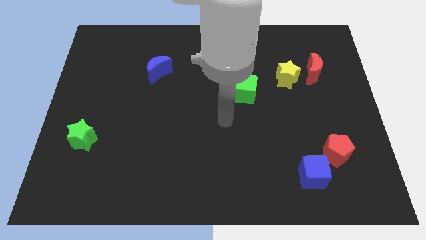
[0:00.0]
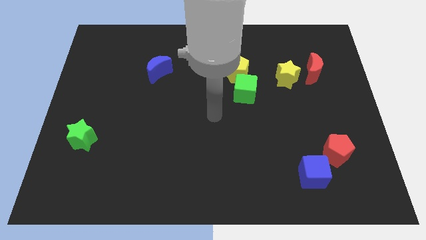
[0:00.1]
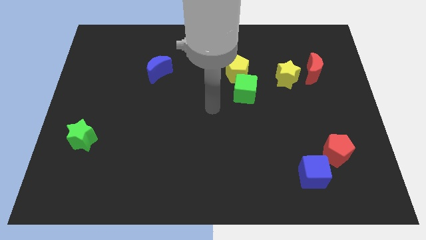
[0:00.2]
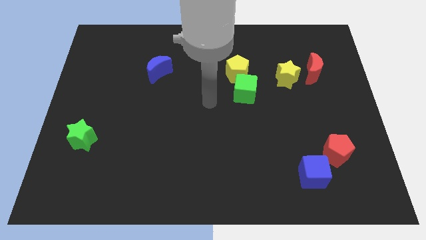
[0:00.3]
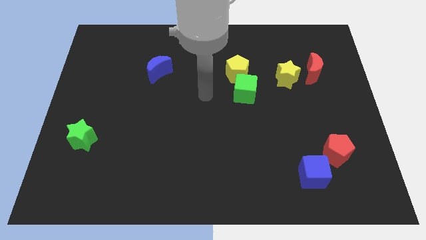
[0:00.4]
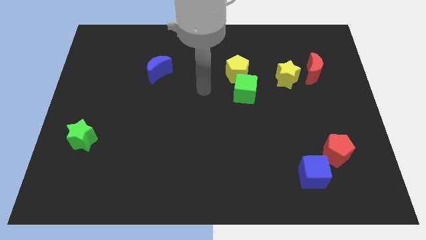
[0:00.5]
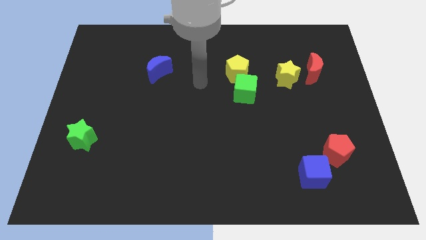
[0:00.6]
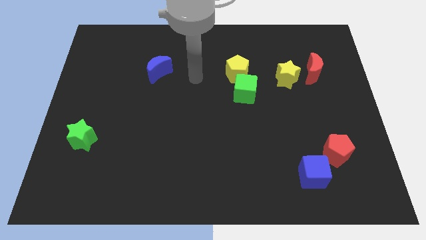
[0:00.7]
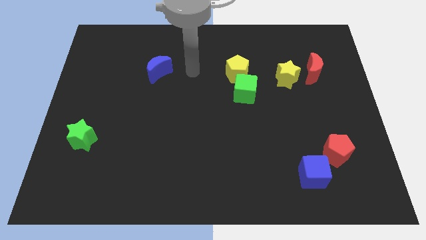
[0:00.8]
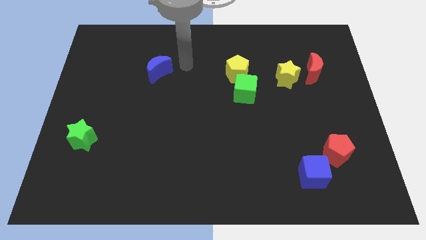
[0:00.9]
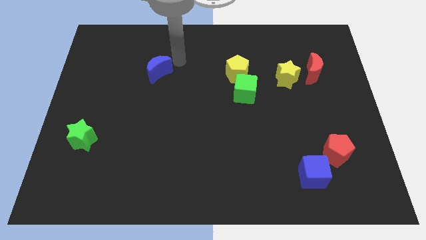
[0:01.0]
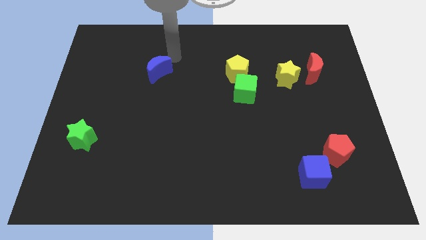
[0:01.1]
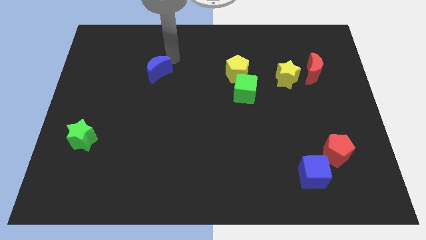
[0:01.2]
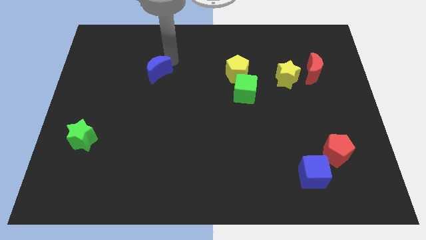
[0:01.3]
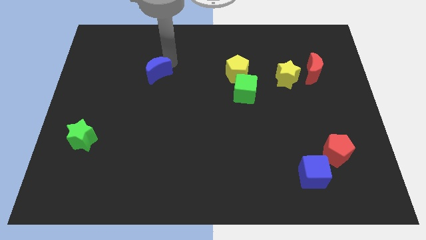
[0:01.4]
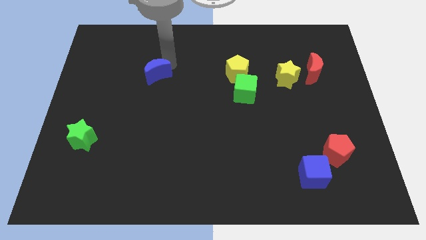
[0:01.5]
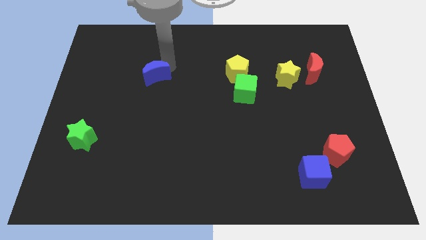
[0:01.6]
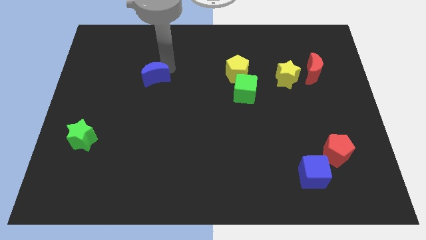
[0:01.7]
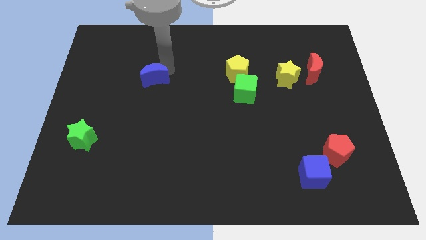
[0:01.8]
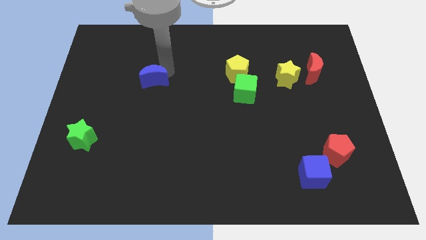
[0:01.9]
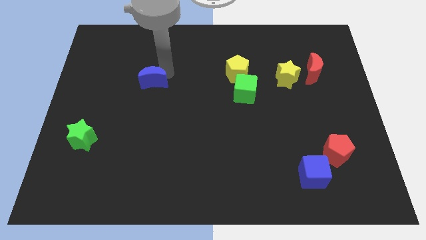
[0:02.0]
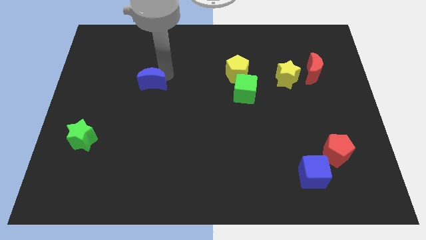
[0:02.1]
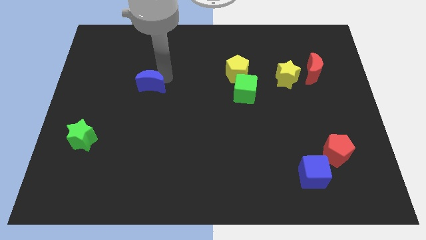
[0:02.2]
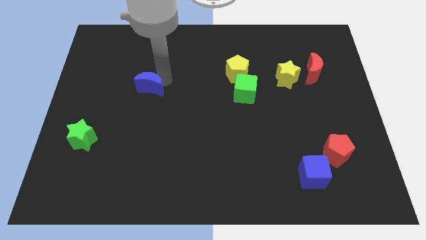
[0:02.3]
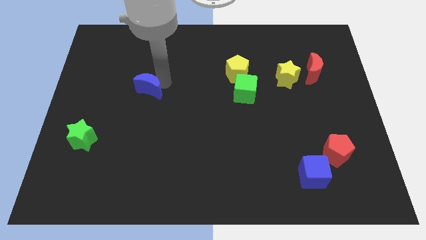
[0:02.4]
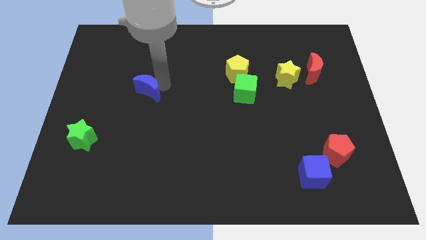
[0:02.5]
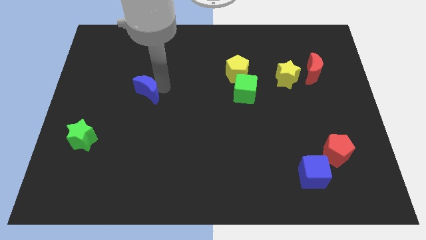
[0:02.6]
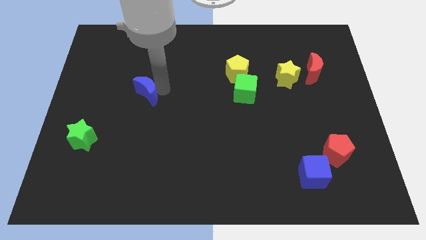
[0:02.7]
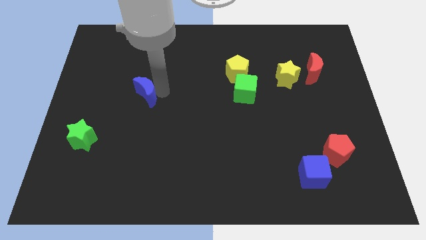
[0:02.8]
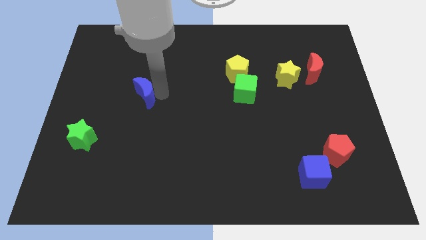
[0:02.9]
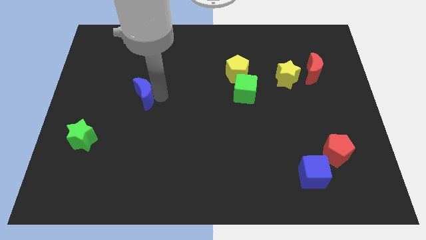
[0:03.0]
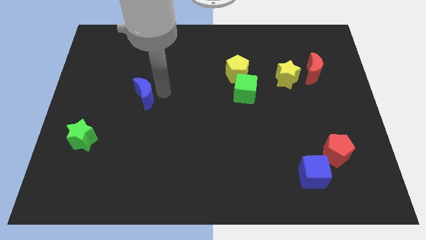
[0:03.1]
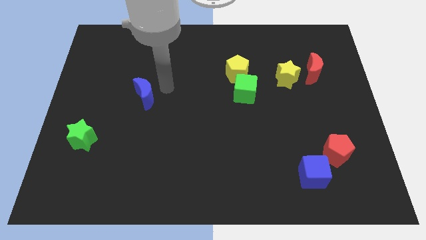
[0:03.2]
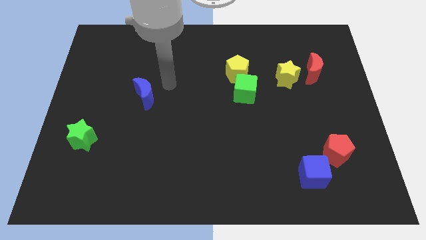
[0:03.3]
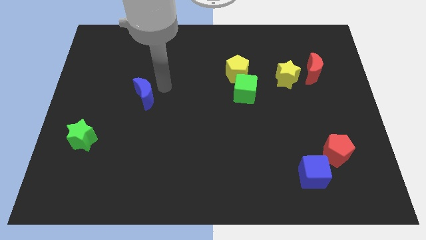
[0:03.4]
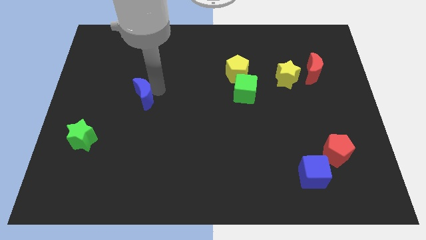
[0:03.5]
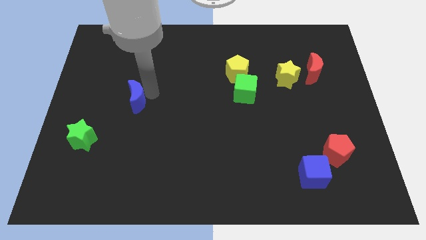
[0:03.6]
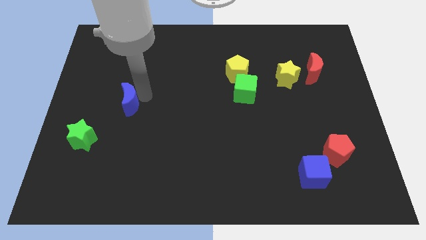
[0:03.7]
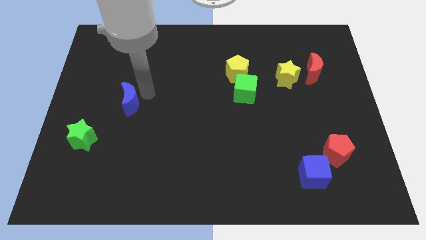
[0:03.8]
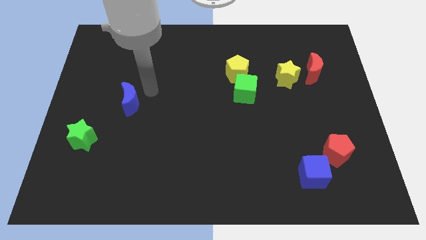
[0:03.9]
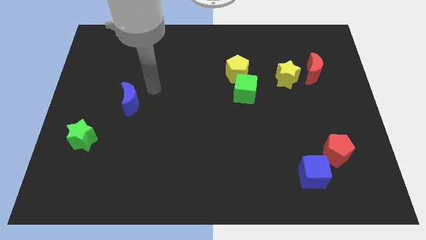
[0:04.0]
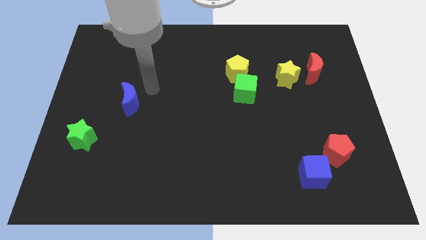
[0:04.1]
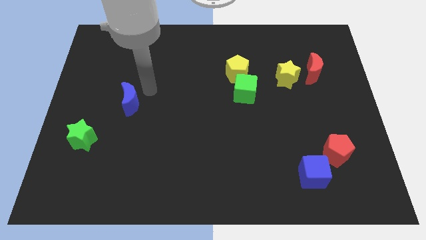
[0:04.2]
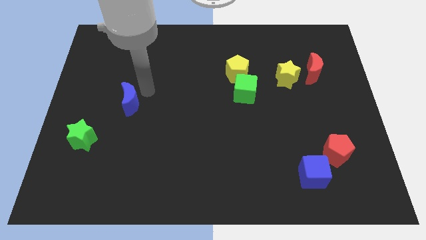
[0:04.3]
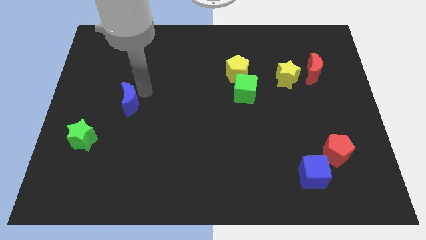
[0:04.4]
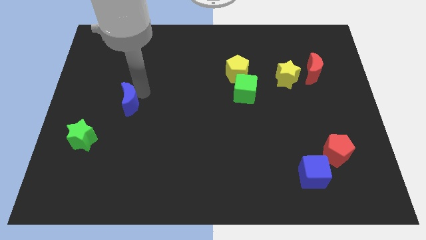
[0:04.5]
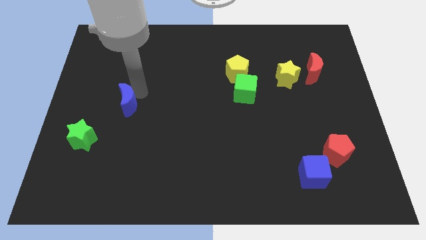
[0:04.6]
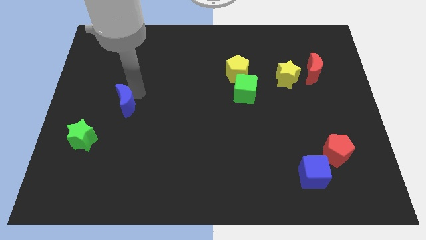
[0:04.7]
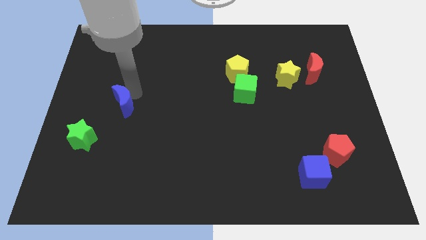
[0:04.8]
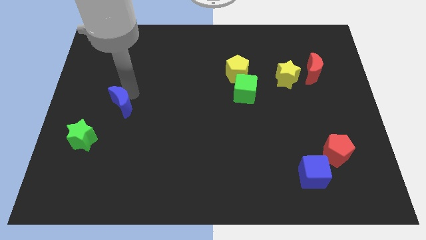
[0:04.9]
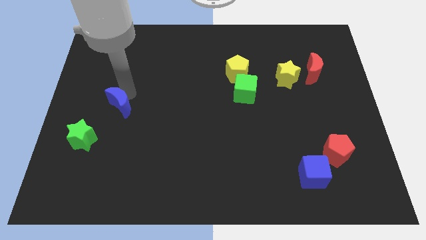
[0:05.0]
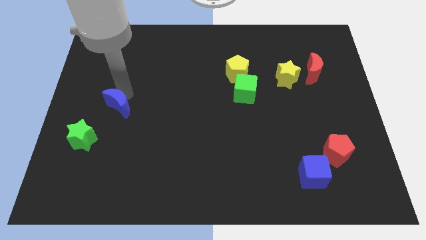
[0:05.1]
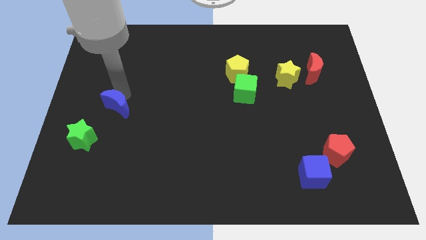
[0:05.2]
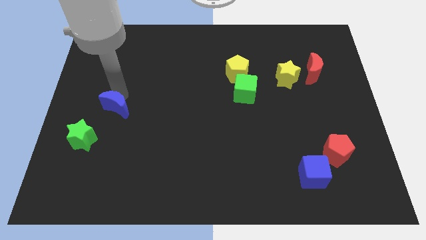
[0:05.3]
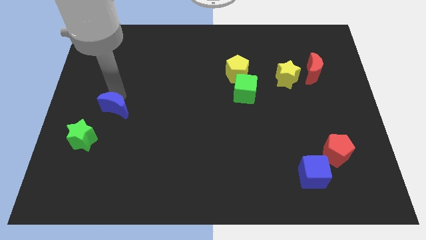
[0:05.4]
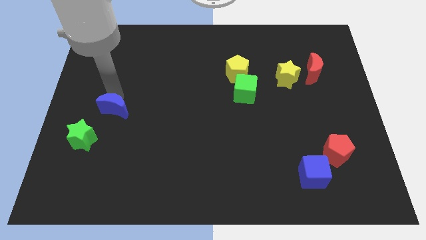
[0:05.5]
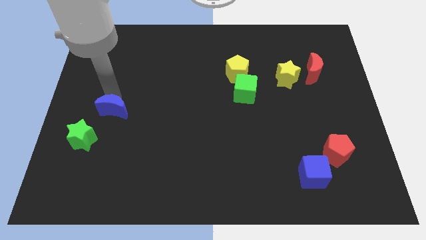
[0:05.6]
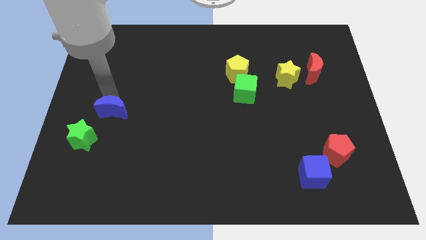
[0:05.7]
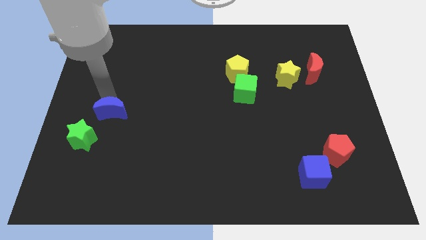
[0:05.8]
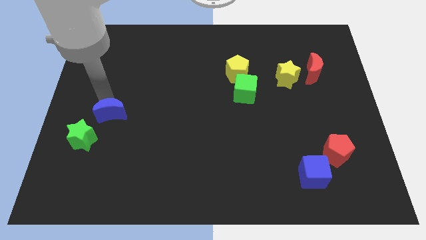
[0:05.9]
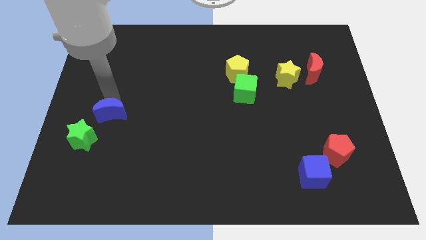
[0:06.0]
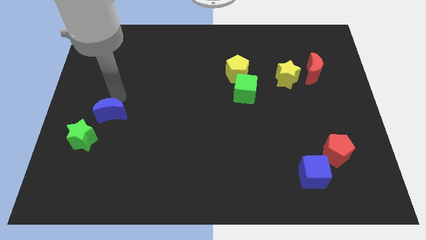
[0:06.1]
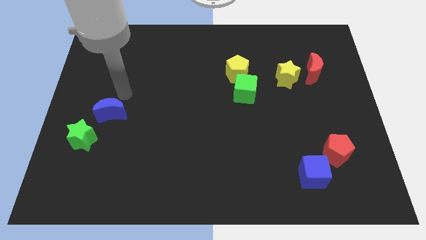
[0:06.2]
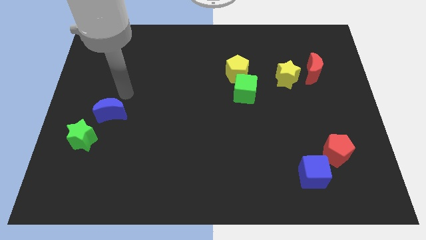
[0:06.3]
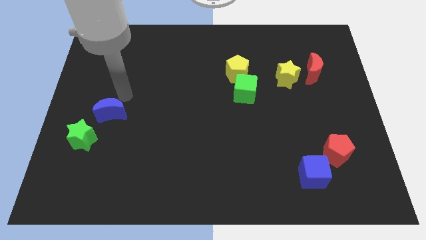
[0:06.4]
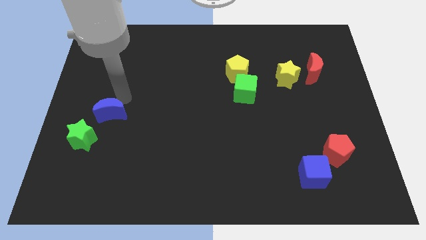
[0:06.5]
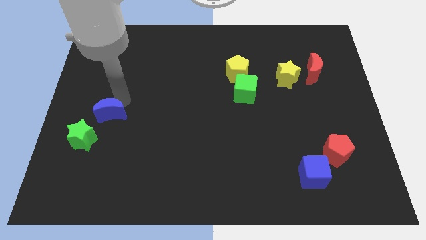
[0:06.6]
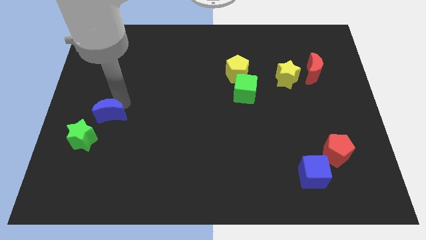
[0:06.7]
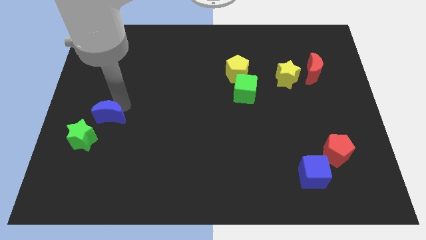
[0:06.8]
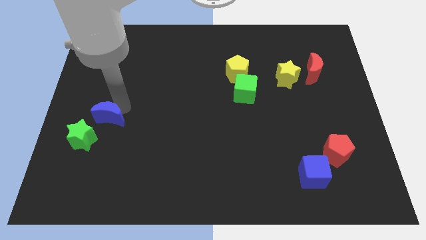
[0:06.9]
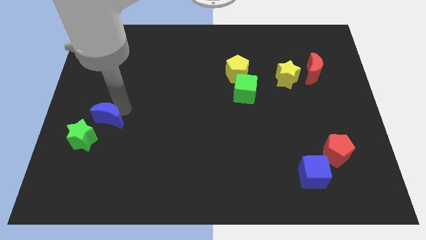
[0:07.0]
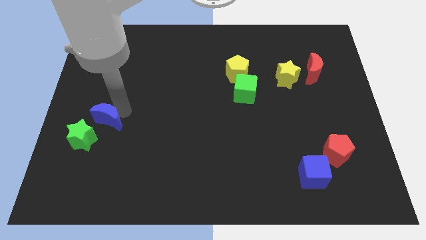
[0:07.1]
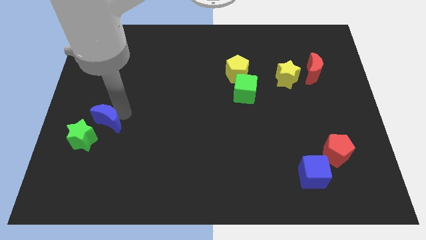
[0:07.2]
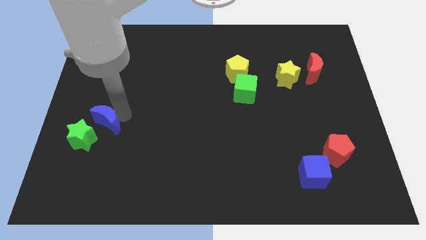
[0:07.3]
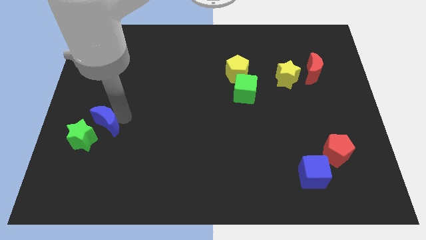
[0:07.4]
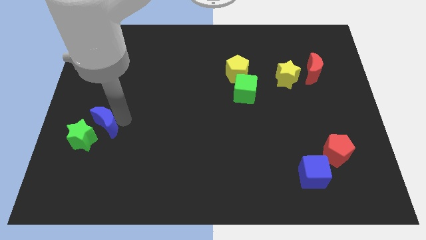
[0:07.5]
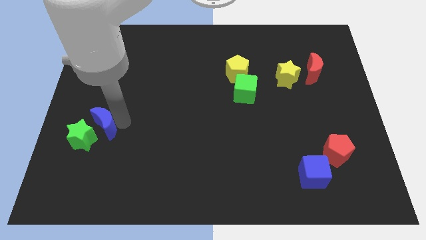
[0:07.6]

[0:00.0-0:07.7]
slide the blue moon towards the green star
